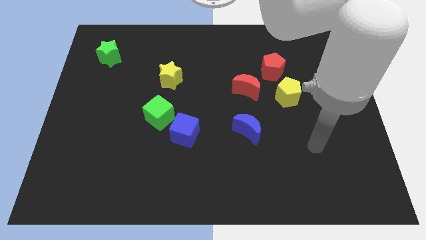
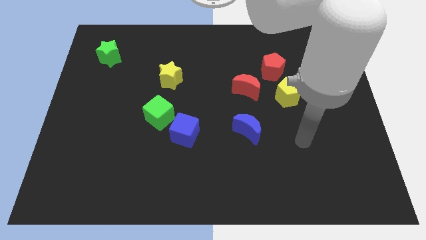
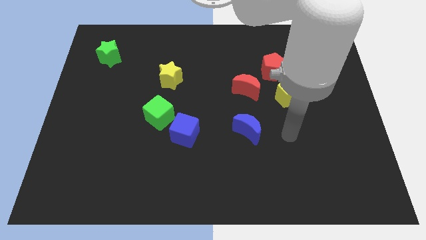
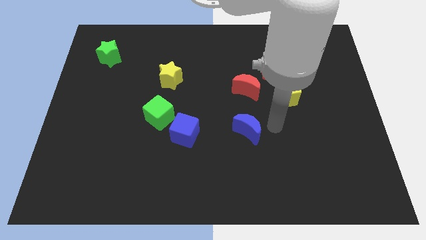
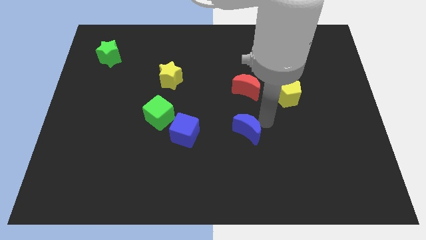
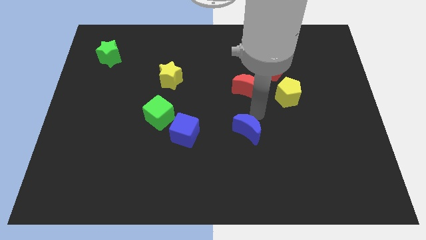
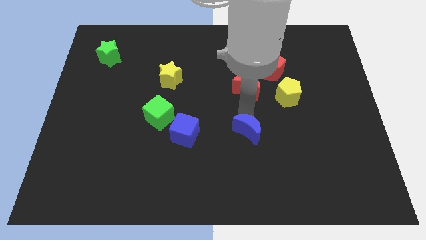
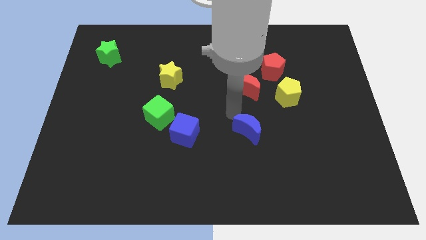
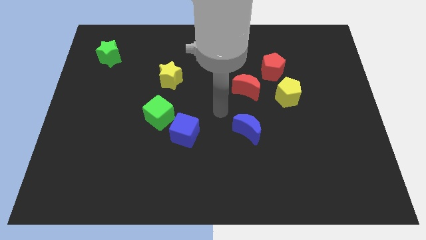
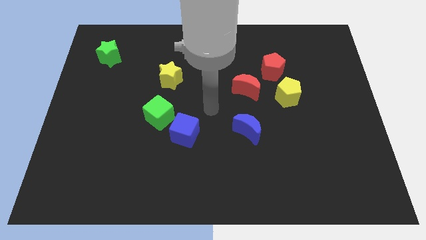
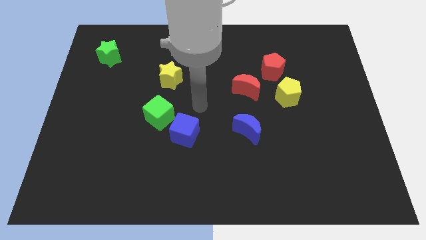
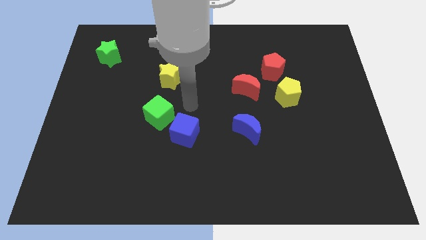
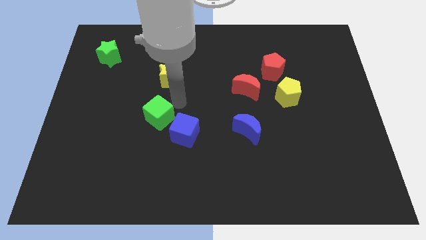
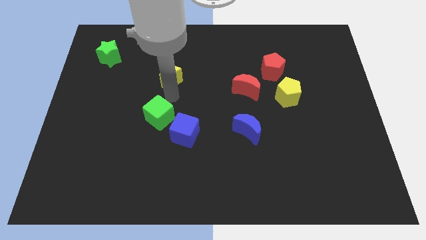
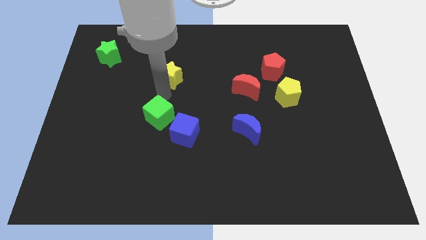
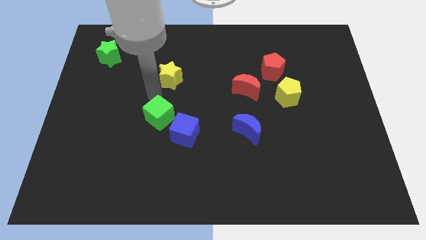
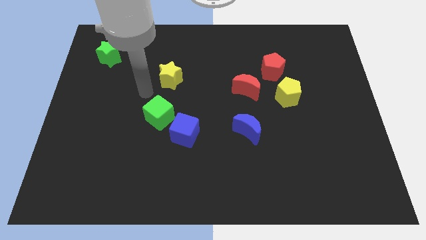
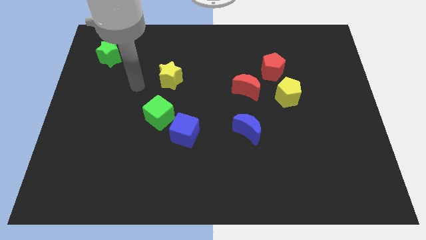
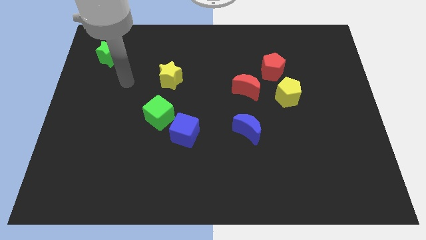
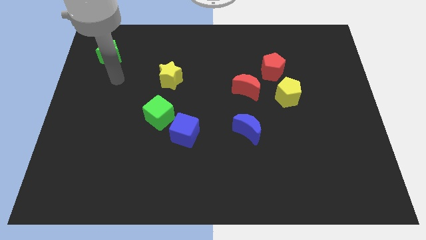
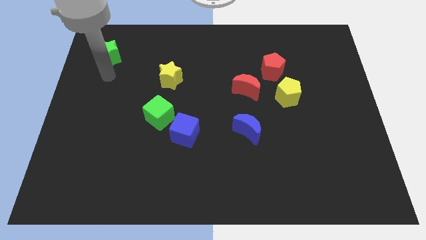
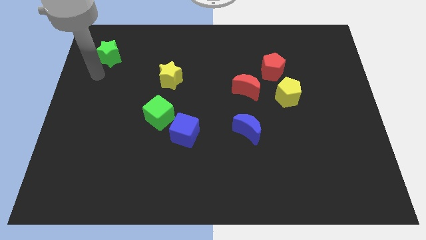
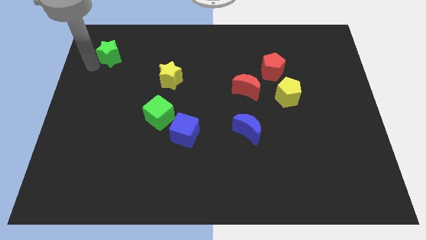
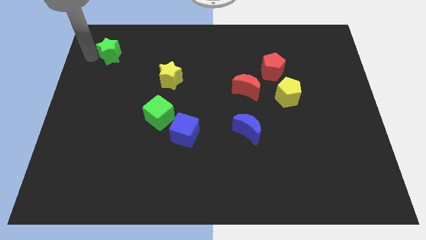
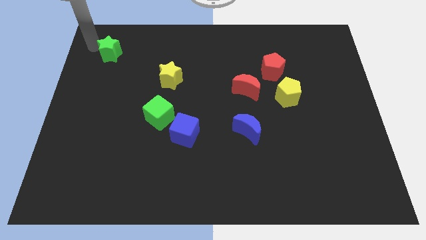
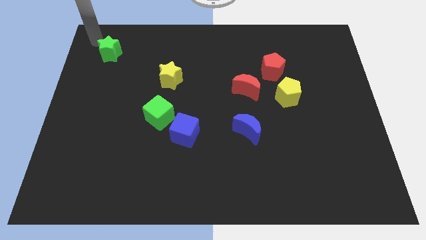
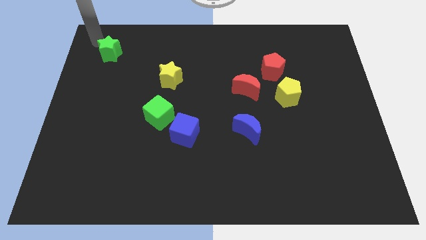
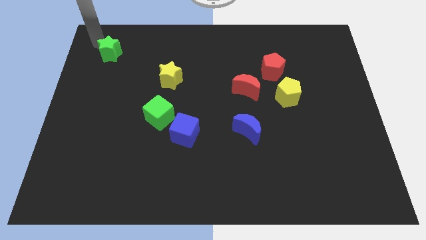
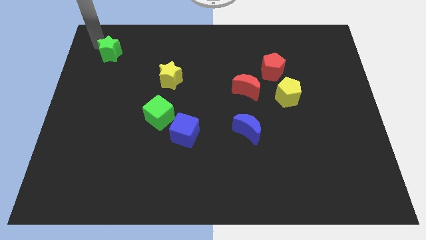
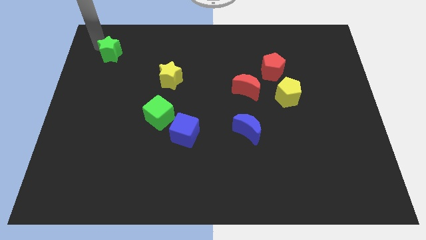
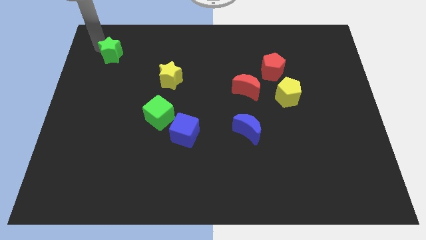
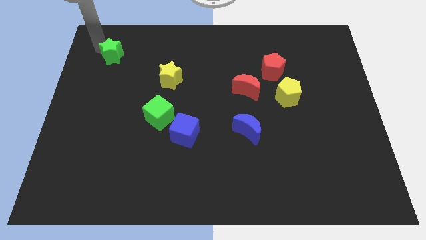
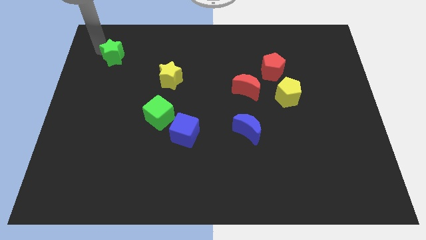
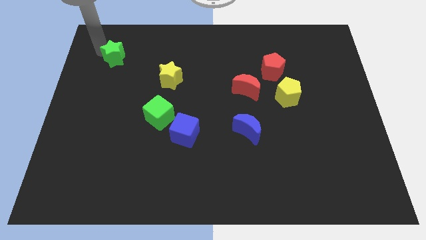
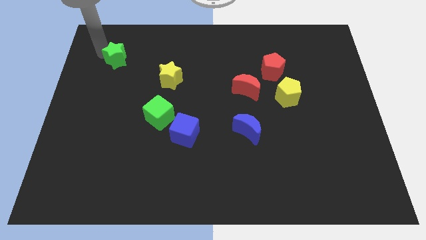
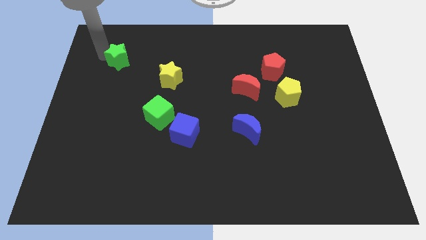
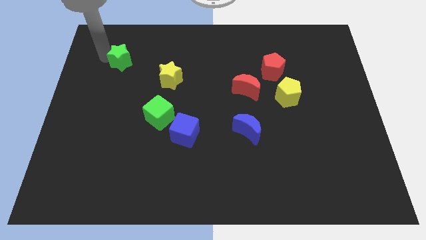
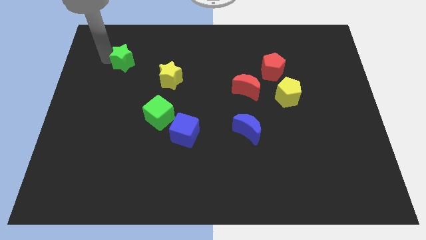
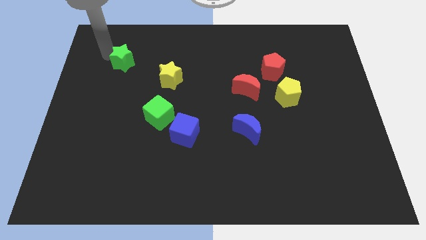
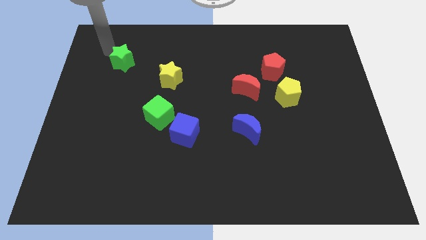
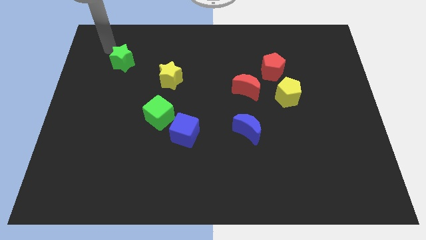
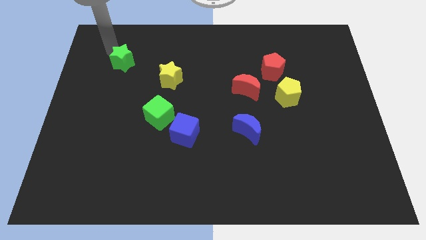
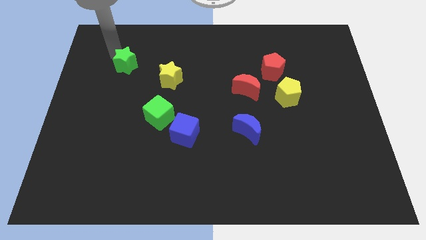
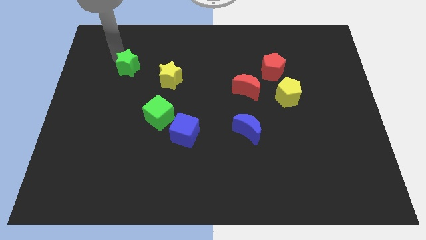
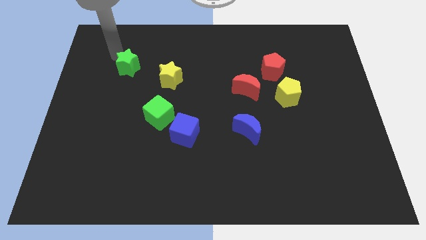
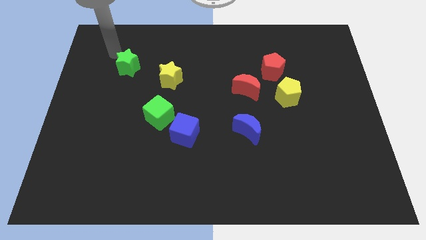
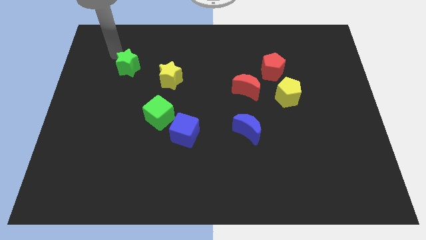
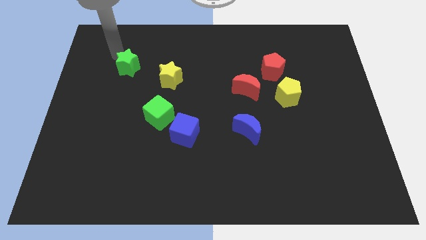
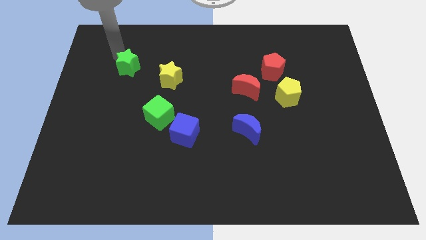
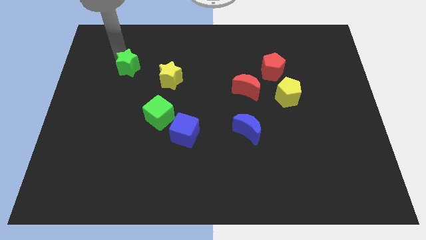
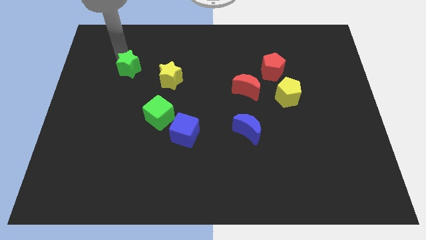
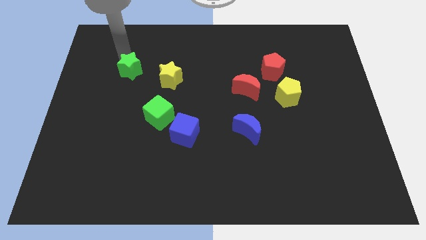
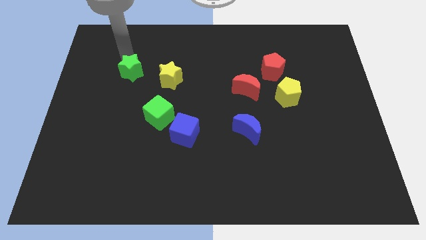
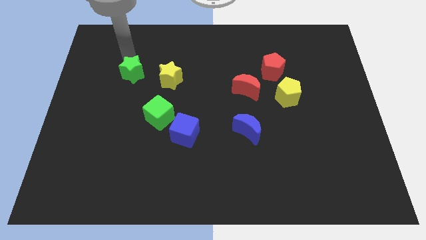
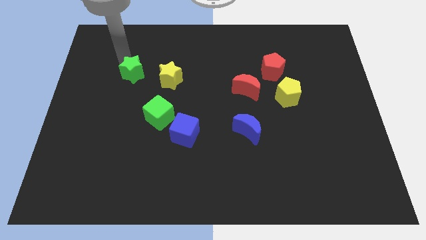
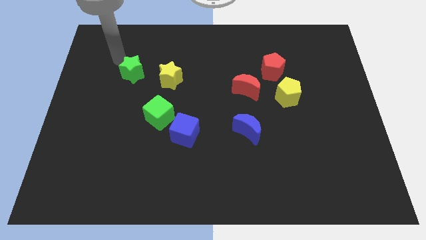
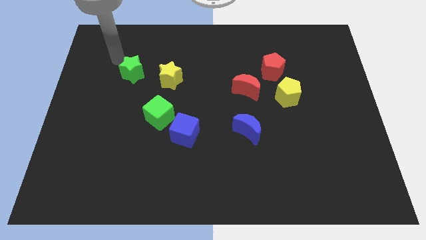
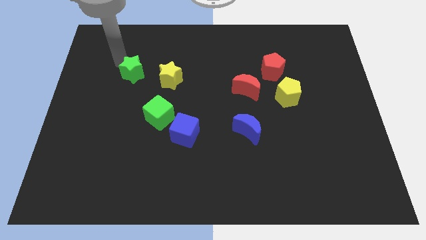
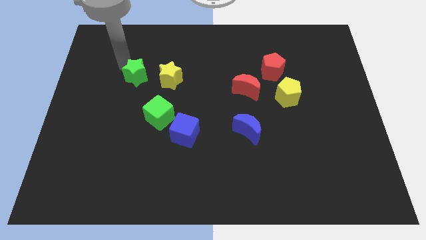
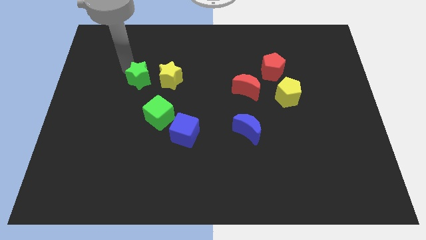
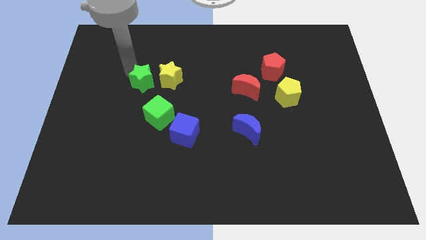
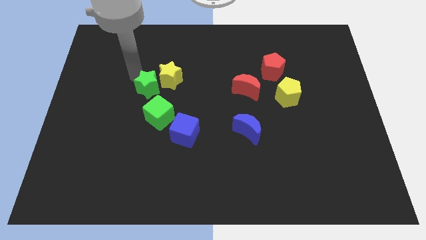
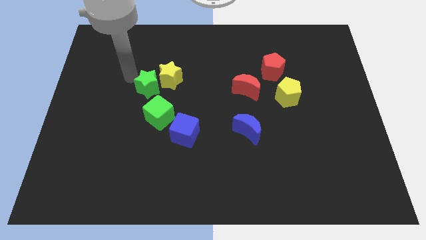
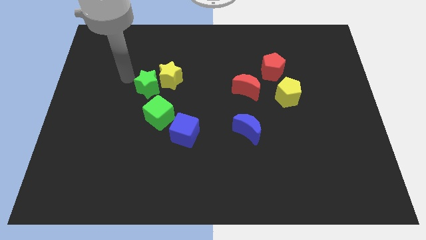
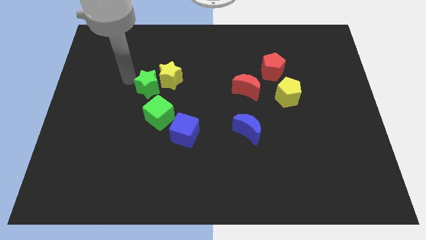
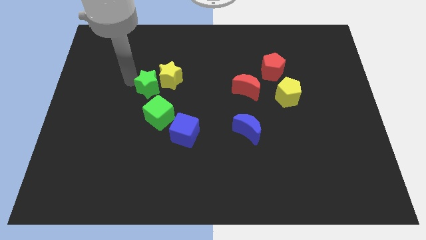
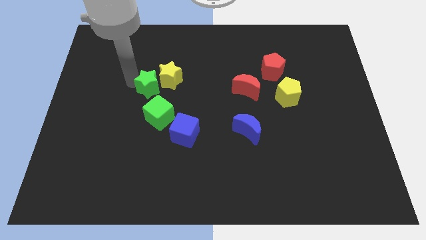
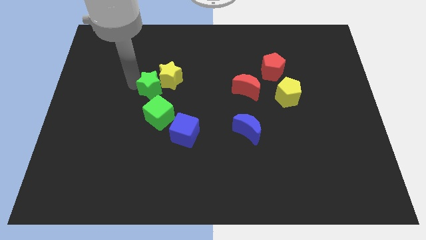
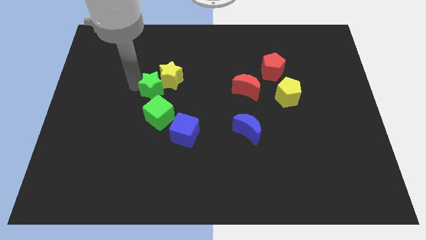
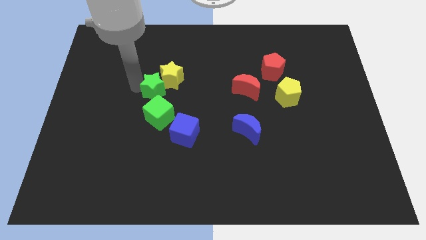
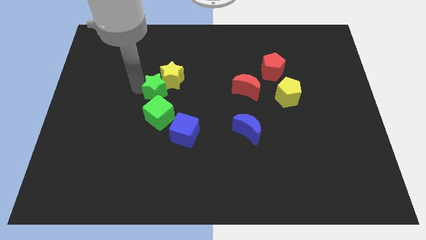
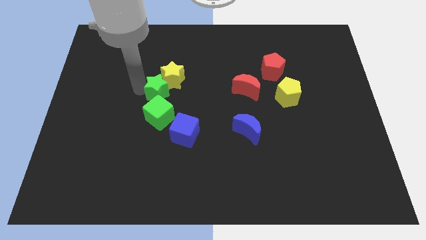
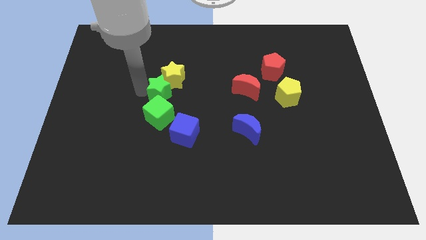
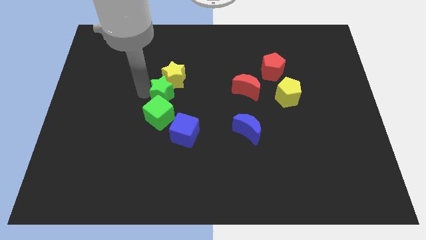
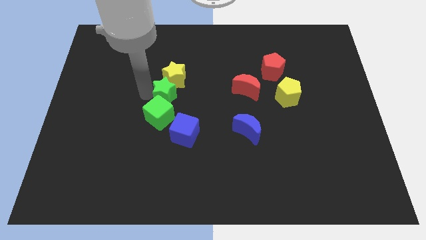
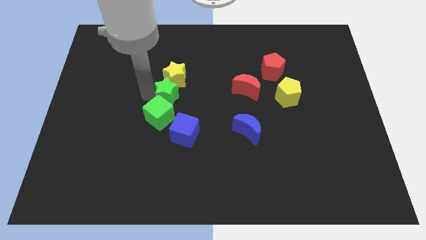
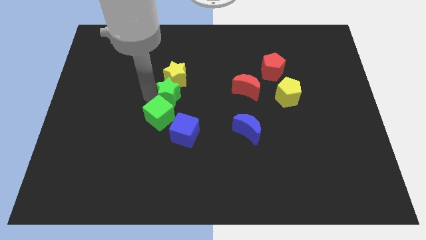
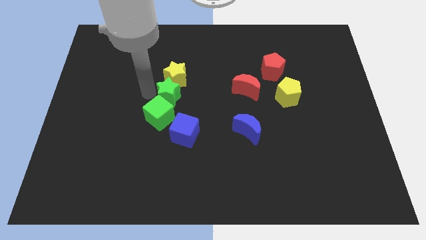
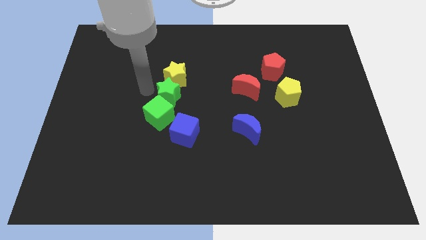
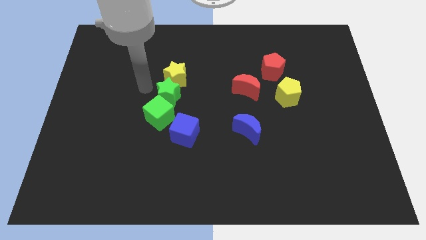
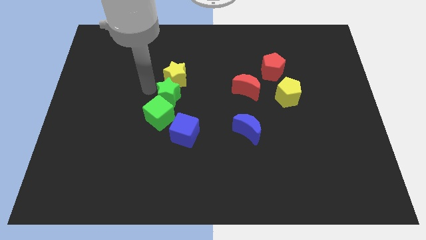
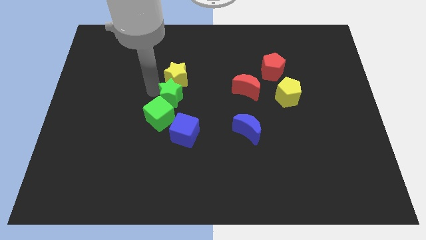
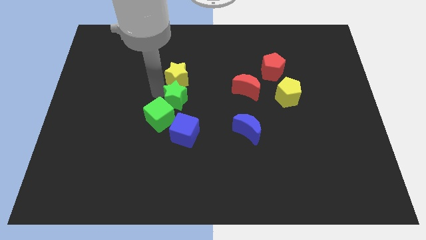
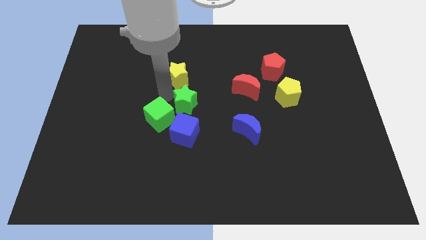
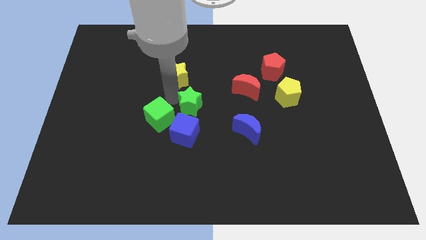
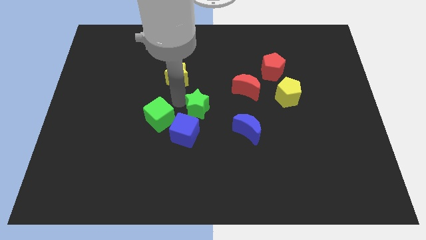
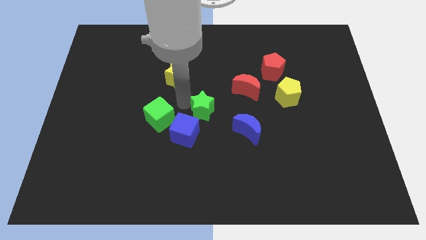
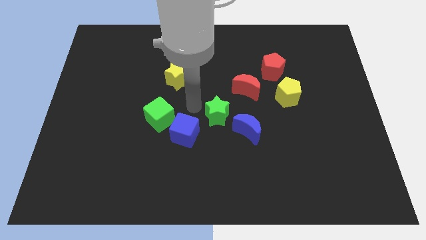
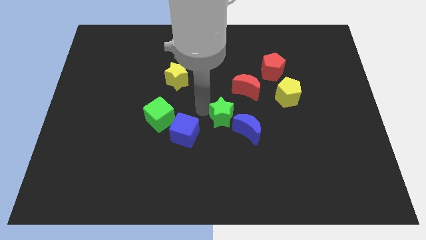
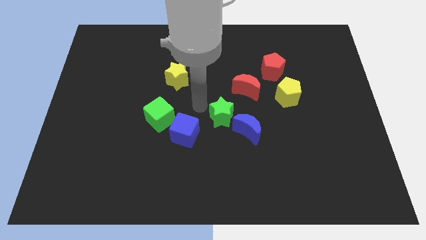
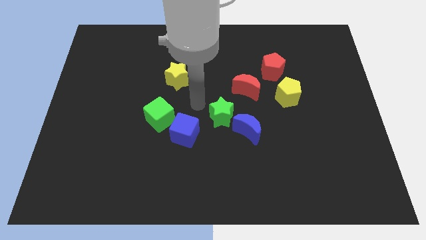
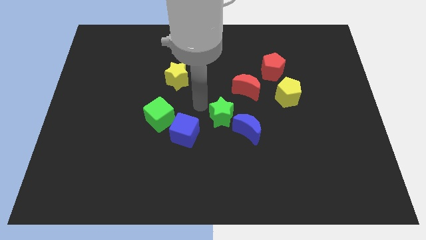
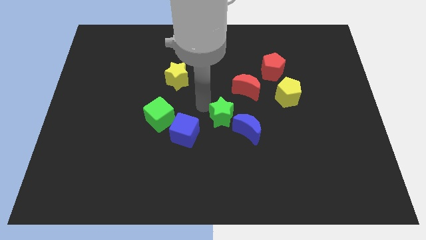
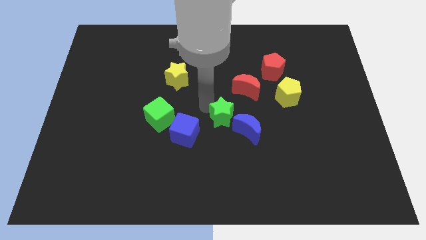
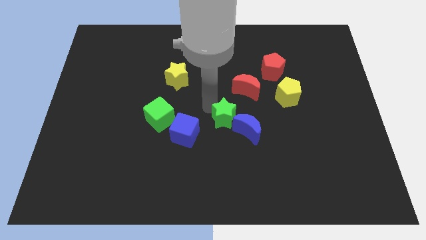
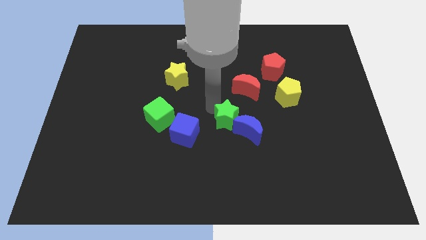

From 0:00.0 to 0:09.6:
slide the green star to the blue moon
